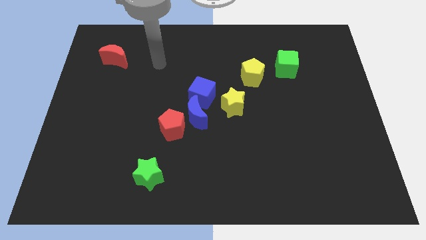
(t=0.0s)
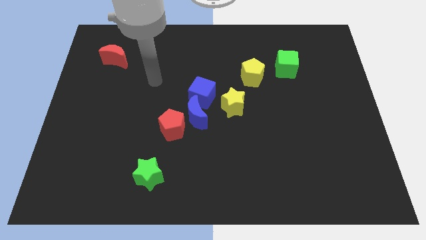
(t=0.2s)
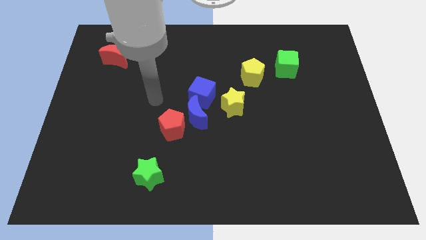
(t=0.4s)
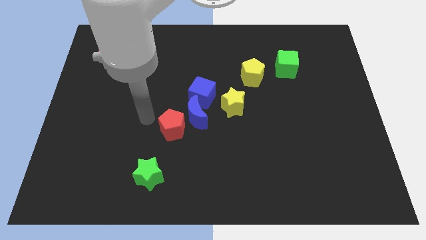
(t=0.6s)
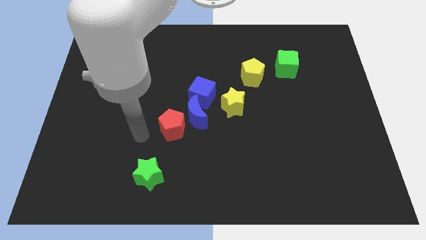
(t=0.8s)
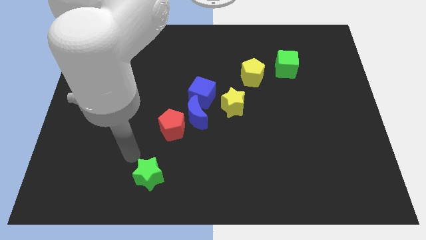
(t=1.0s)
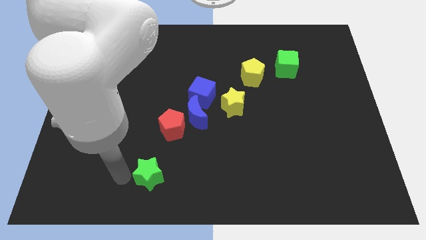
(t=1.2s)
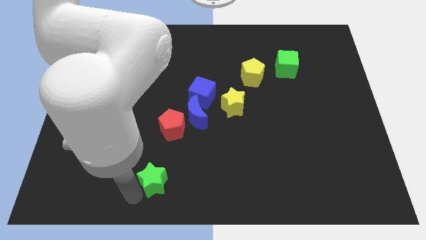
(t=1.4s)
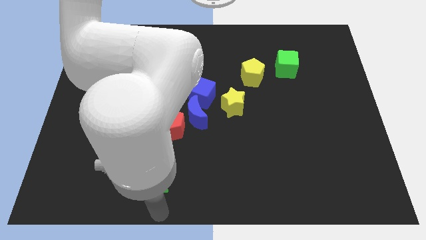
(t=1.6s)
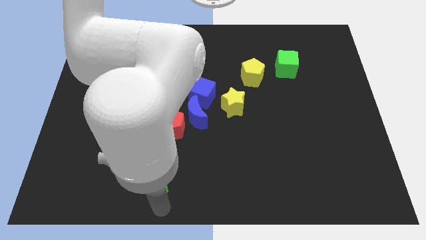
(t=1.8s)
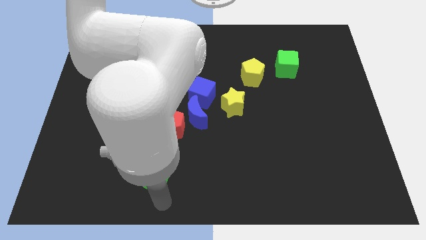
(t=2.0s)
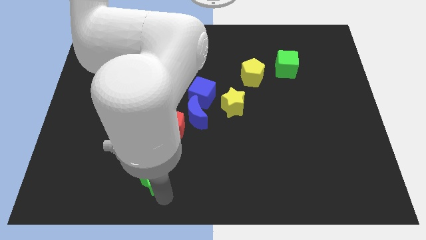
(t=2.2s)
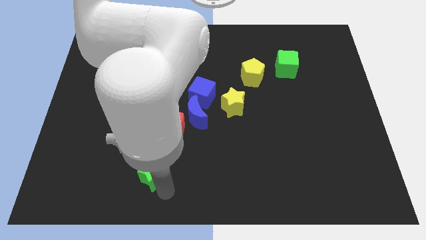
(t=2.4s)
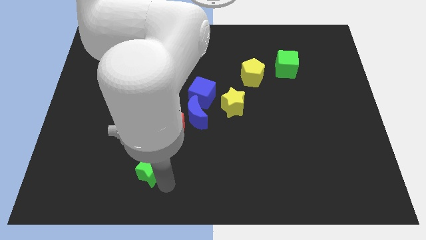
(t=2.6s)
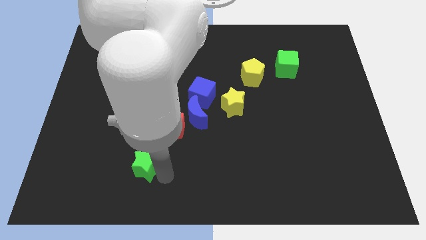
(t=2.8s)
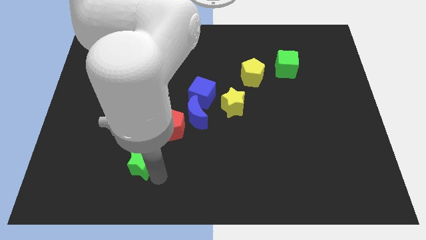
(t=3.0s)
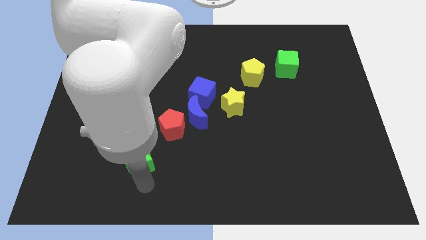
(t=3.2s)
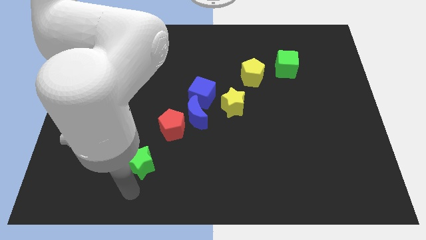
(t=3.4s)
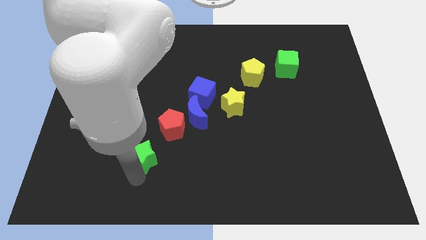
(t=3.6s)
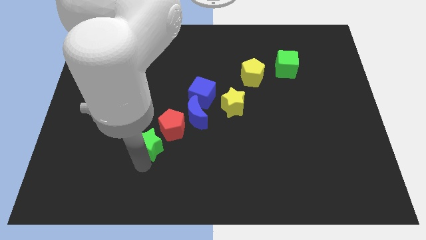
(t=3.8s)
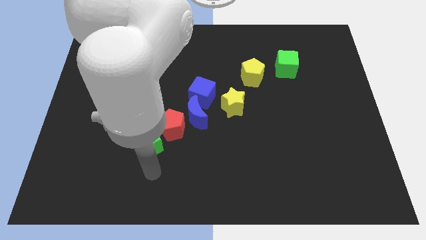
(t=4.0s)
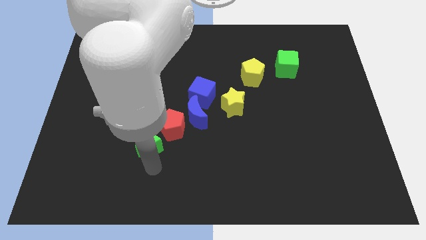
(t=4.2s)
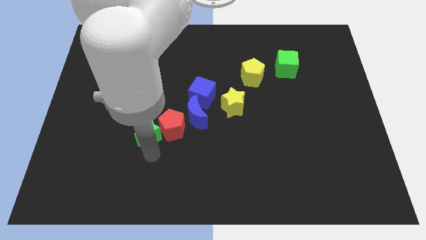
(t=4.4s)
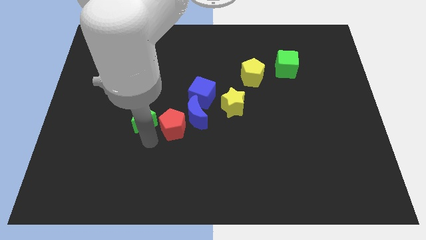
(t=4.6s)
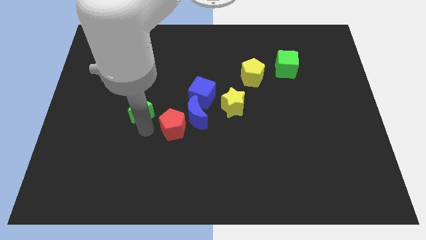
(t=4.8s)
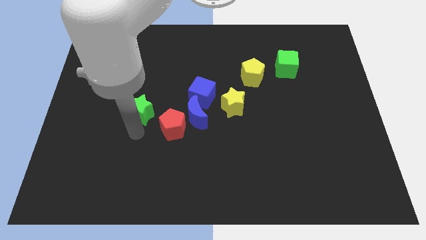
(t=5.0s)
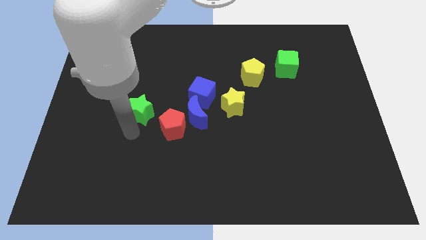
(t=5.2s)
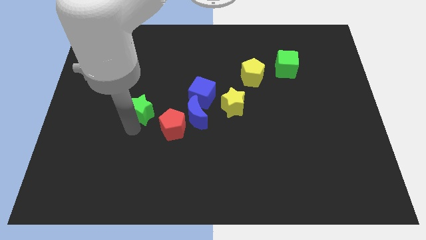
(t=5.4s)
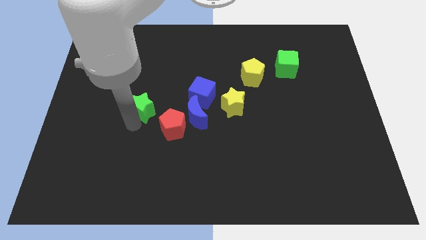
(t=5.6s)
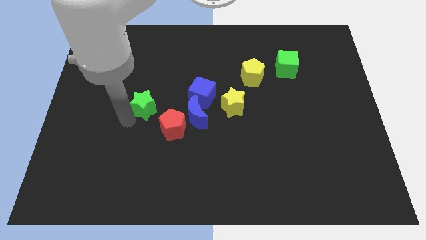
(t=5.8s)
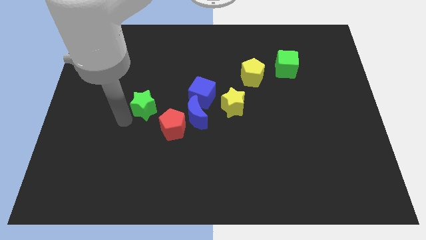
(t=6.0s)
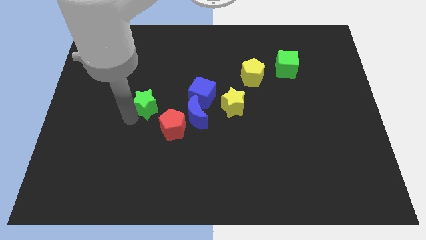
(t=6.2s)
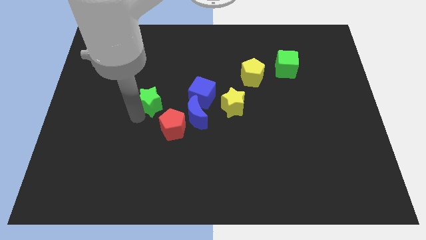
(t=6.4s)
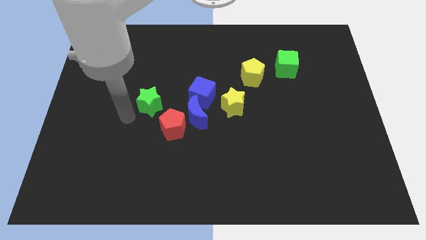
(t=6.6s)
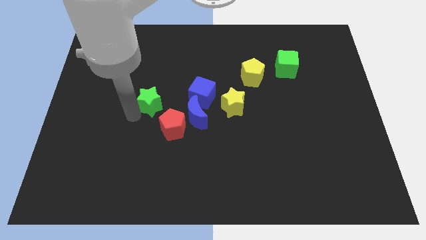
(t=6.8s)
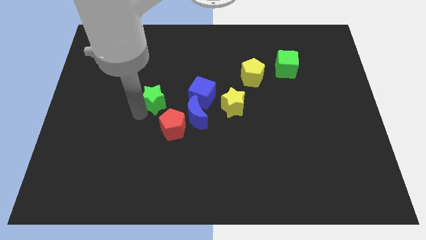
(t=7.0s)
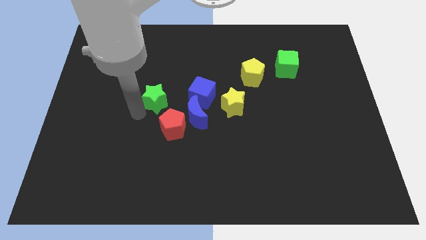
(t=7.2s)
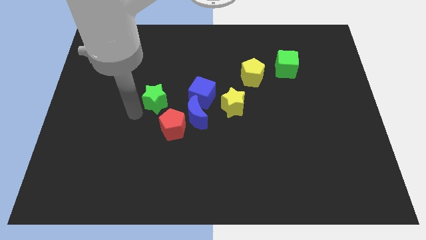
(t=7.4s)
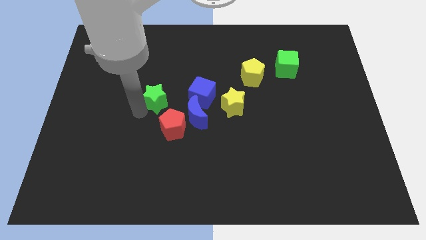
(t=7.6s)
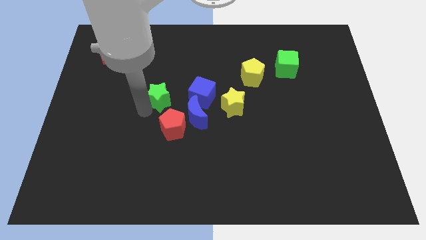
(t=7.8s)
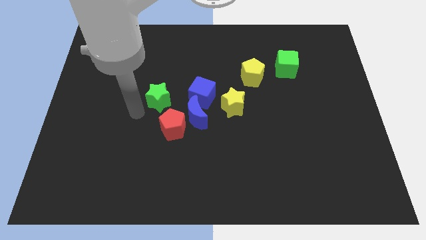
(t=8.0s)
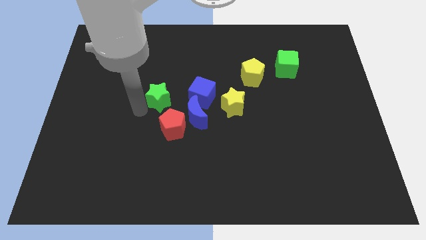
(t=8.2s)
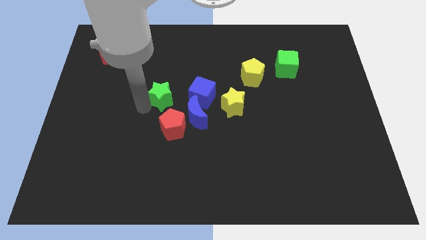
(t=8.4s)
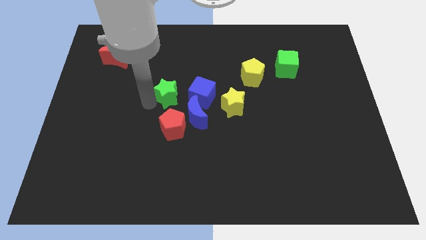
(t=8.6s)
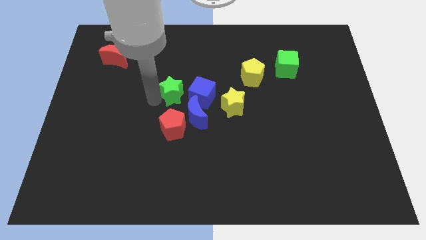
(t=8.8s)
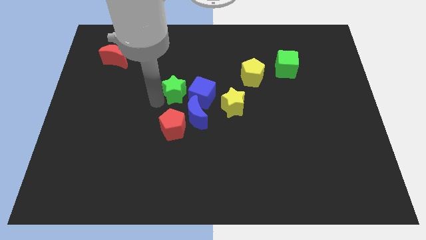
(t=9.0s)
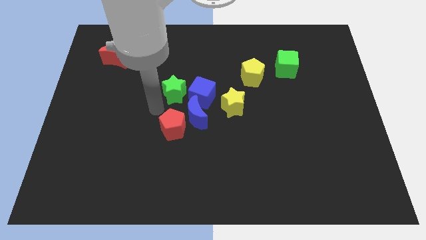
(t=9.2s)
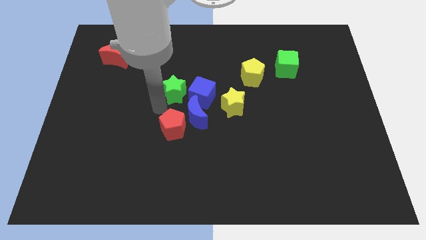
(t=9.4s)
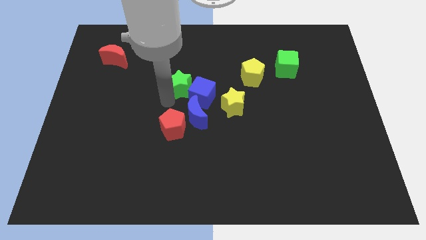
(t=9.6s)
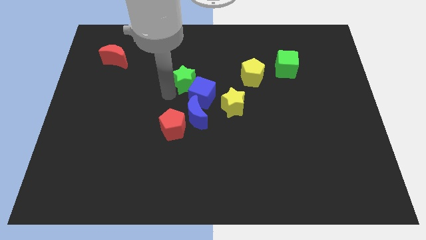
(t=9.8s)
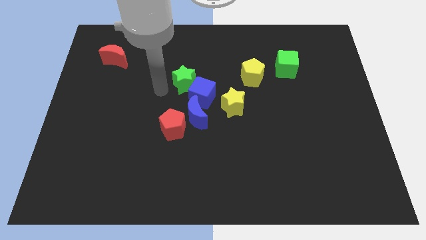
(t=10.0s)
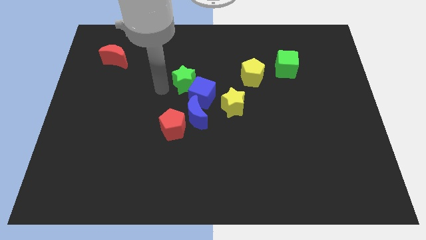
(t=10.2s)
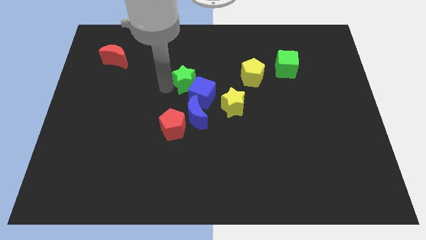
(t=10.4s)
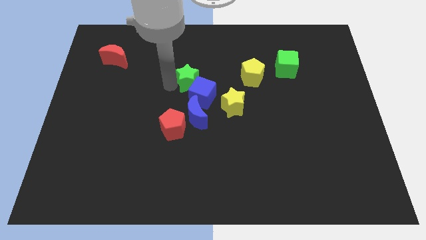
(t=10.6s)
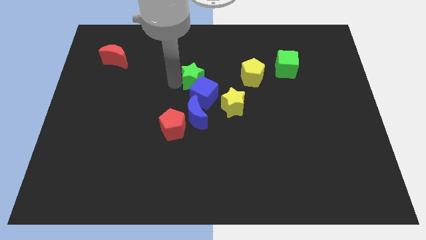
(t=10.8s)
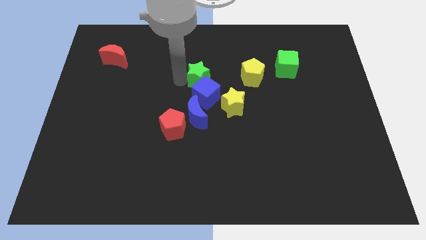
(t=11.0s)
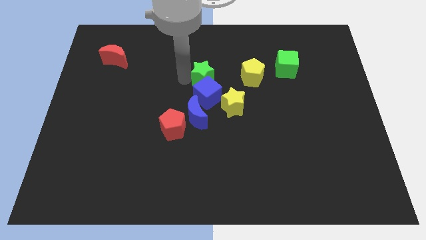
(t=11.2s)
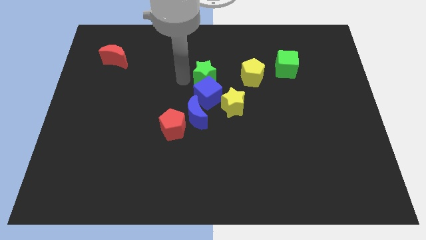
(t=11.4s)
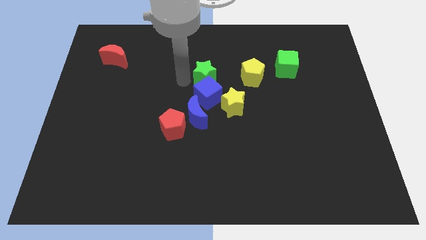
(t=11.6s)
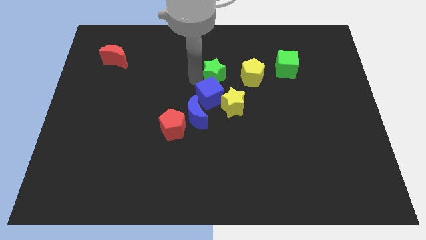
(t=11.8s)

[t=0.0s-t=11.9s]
put the green star above the yellow star
